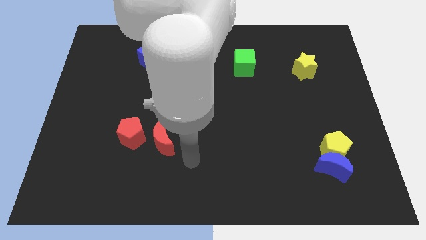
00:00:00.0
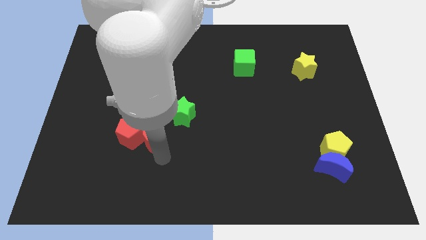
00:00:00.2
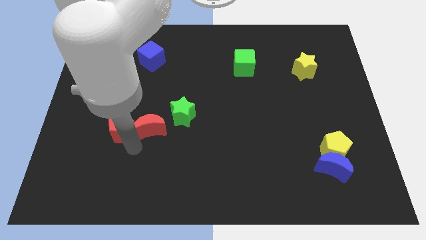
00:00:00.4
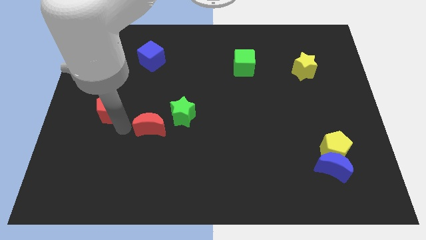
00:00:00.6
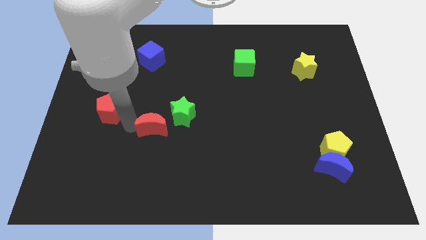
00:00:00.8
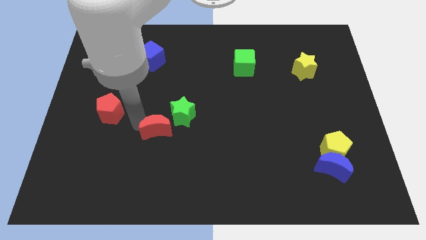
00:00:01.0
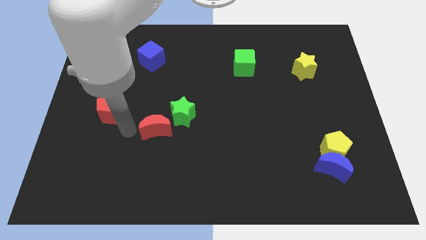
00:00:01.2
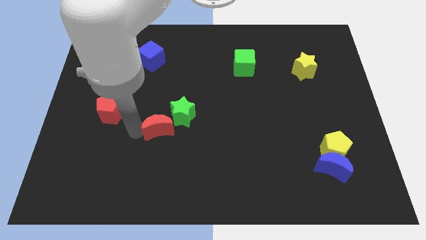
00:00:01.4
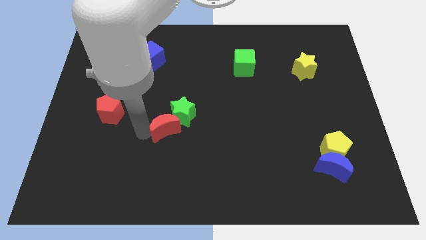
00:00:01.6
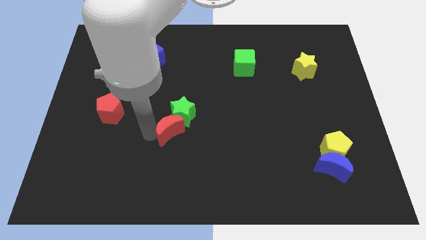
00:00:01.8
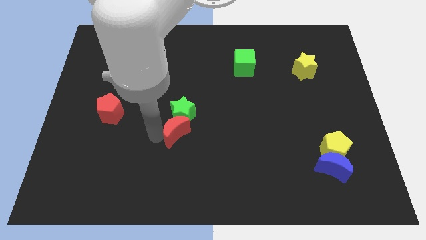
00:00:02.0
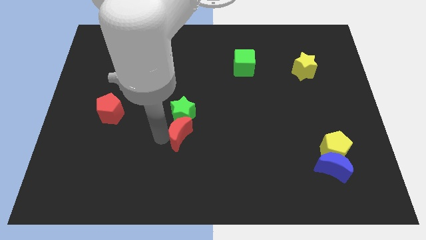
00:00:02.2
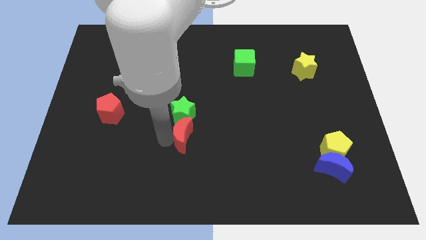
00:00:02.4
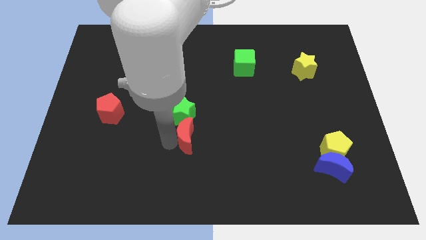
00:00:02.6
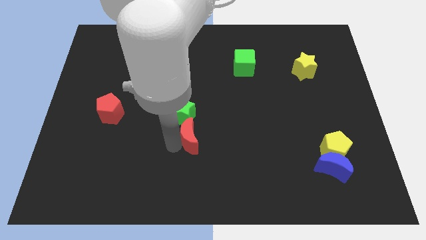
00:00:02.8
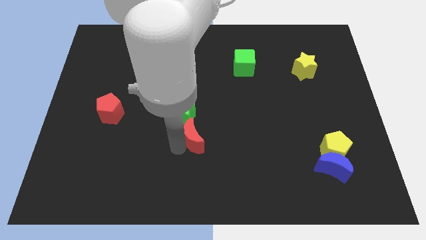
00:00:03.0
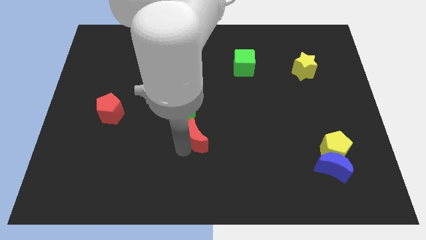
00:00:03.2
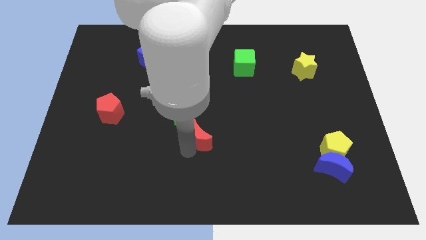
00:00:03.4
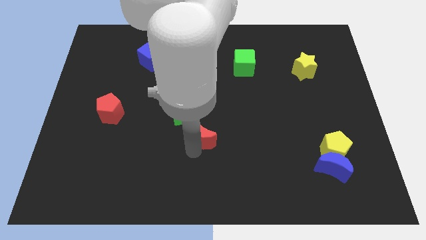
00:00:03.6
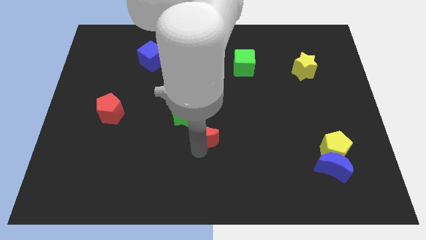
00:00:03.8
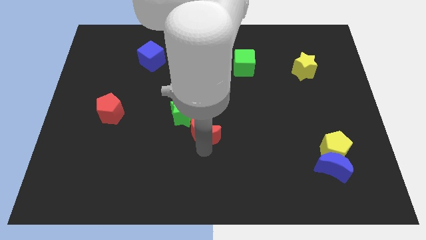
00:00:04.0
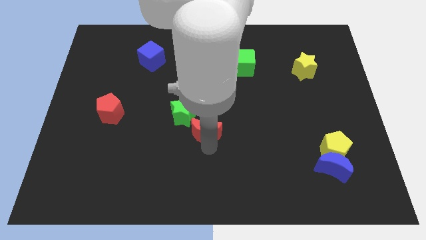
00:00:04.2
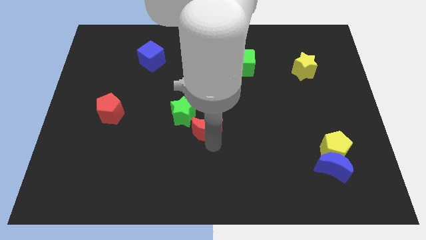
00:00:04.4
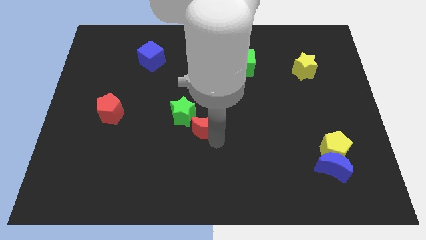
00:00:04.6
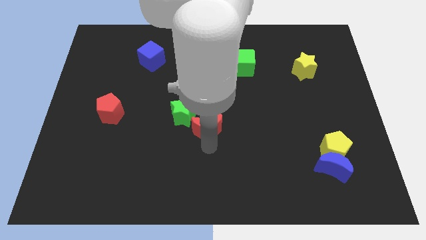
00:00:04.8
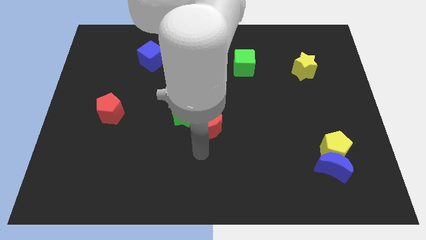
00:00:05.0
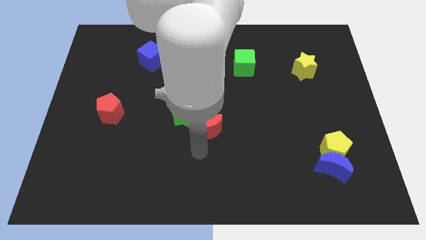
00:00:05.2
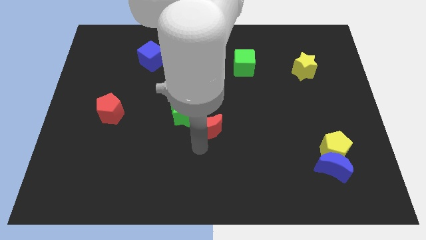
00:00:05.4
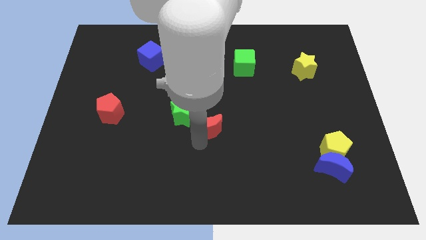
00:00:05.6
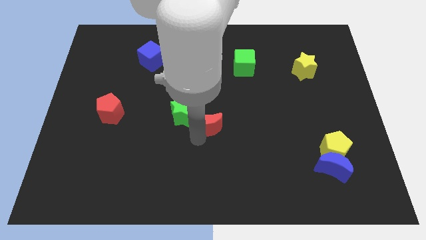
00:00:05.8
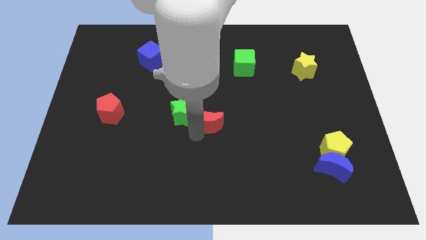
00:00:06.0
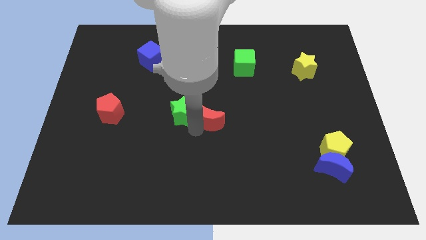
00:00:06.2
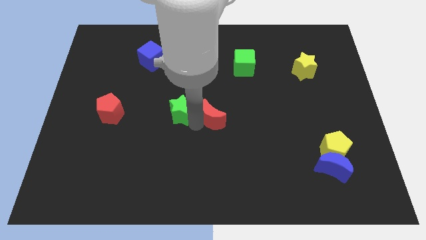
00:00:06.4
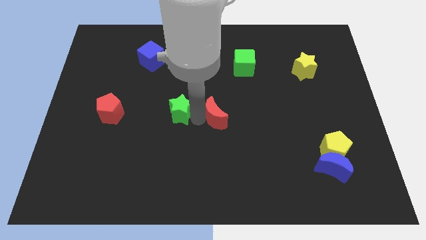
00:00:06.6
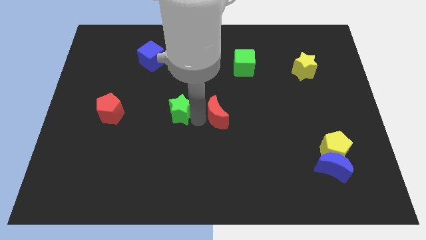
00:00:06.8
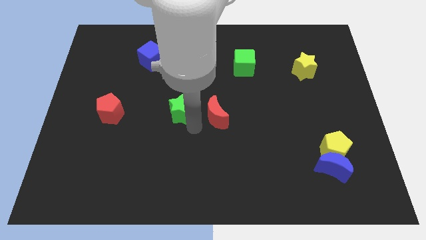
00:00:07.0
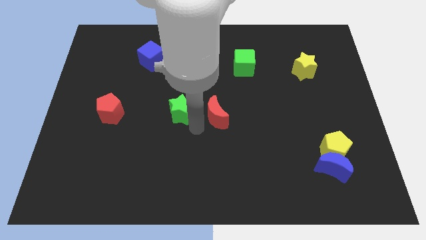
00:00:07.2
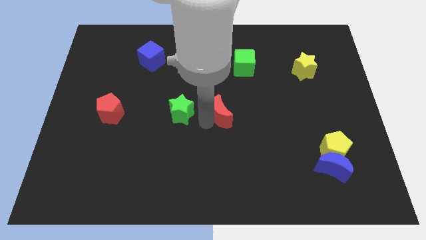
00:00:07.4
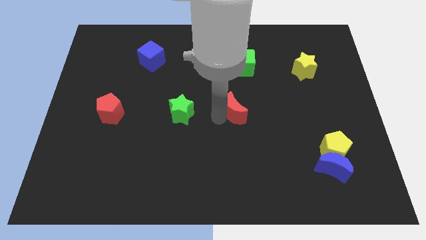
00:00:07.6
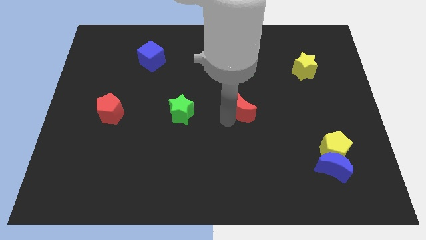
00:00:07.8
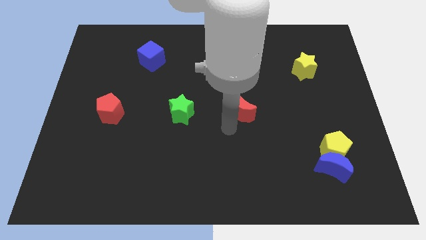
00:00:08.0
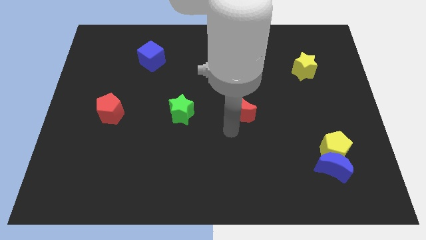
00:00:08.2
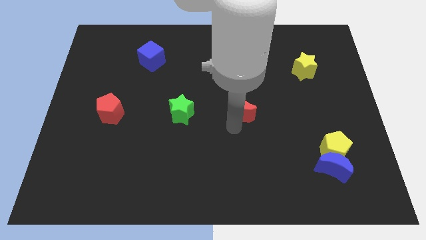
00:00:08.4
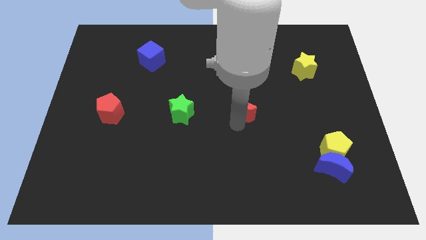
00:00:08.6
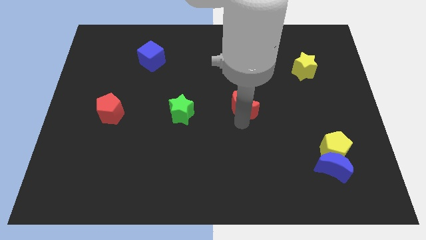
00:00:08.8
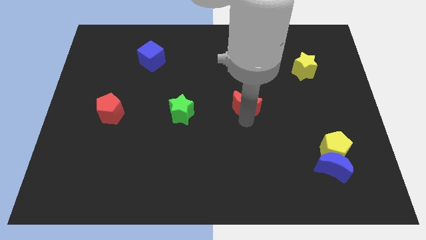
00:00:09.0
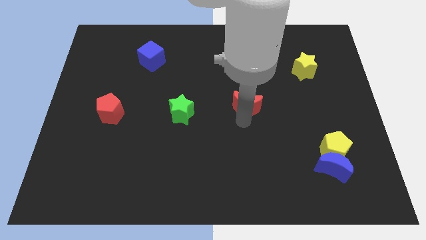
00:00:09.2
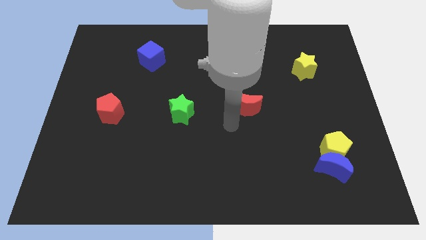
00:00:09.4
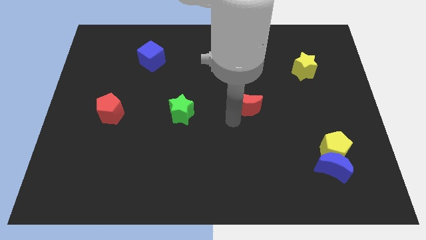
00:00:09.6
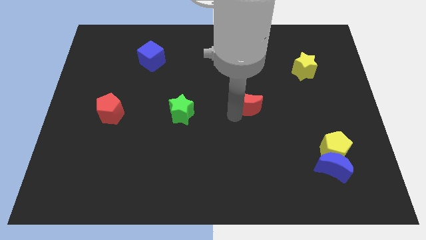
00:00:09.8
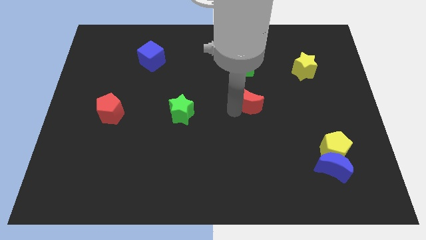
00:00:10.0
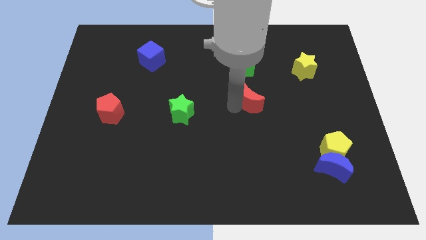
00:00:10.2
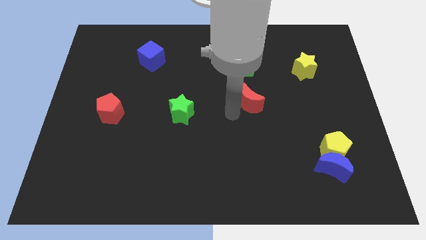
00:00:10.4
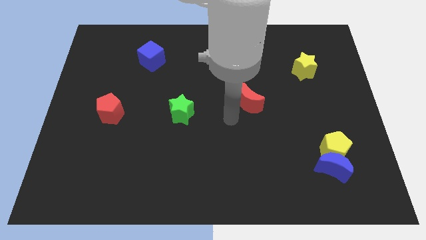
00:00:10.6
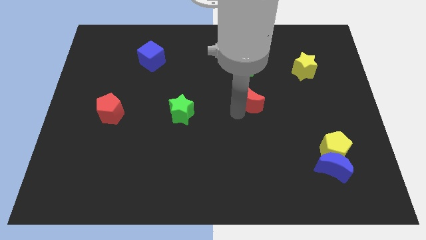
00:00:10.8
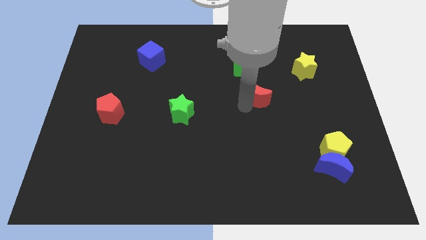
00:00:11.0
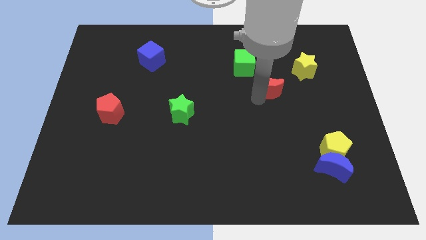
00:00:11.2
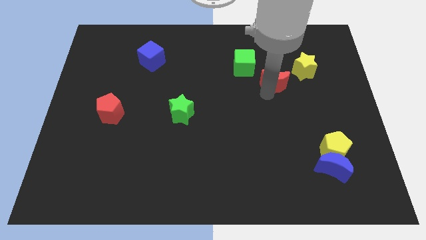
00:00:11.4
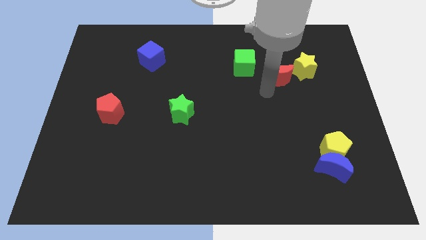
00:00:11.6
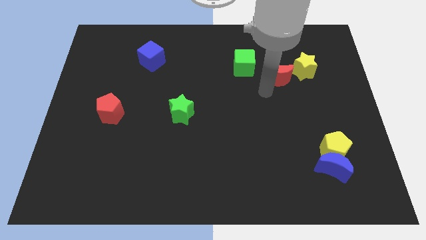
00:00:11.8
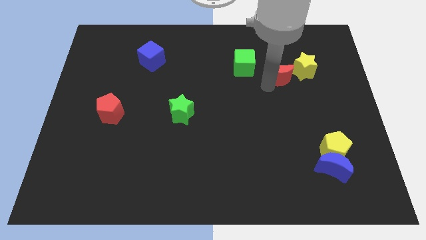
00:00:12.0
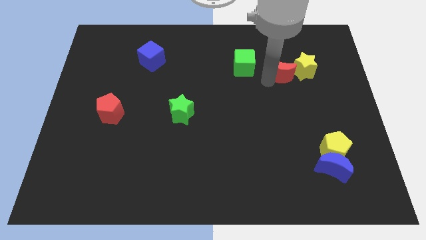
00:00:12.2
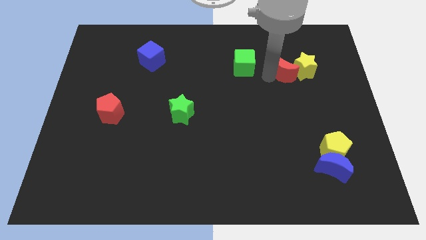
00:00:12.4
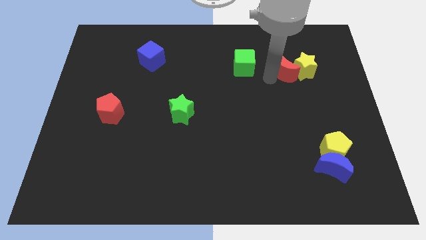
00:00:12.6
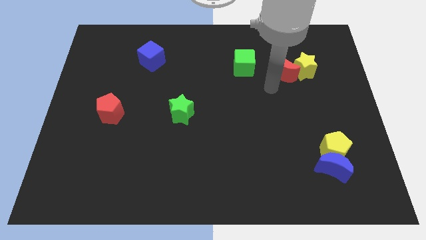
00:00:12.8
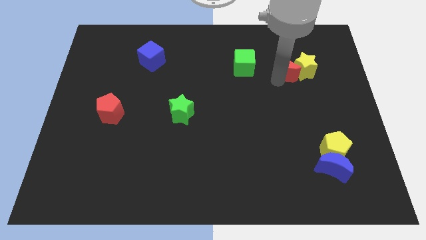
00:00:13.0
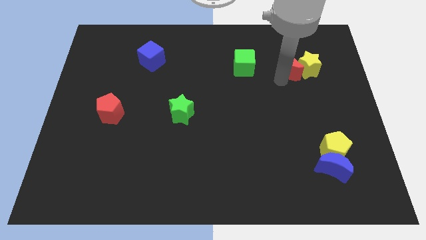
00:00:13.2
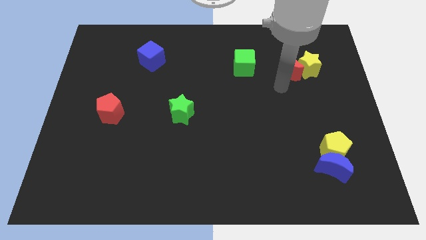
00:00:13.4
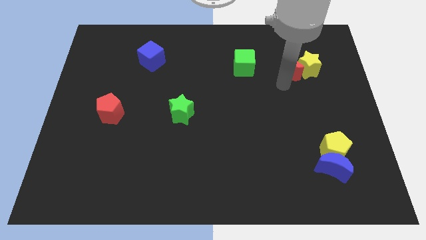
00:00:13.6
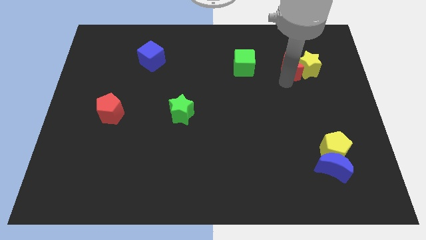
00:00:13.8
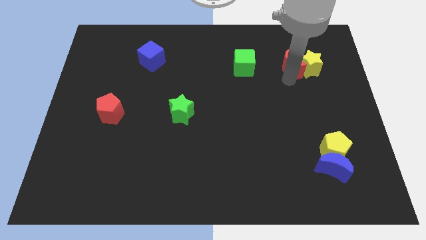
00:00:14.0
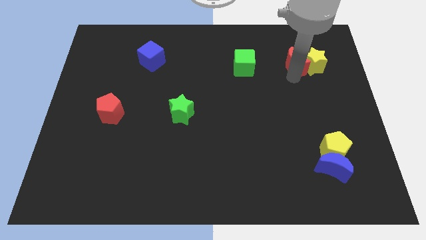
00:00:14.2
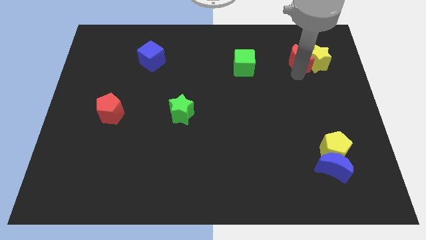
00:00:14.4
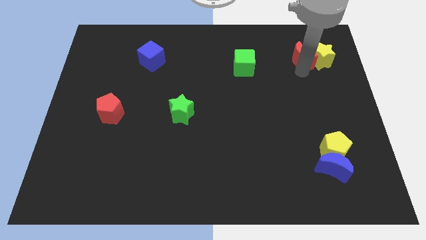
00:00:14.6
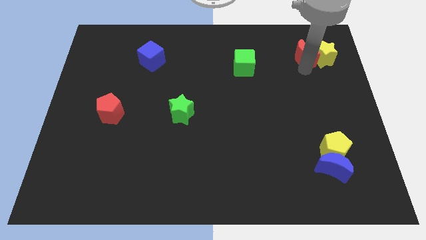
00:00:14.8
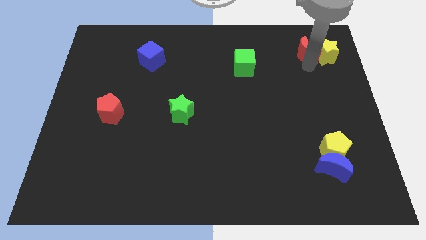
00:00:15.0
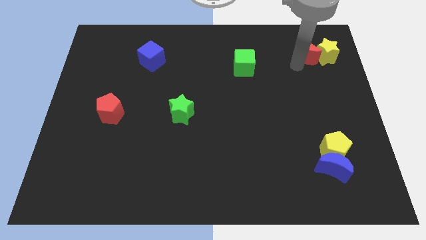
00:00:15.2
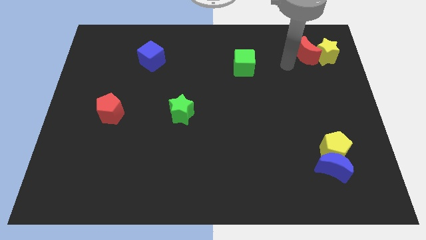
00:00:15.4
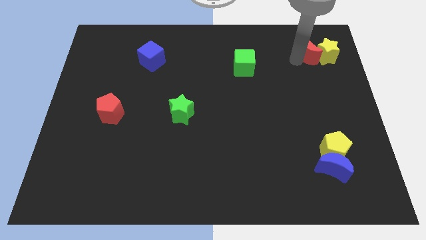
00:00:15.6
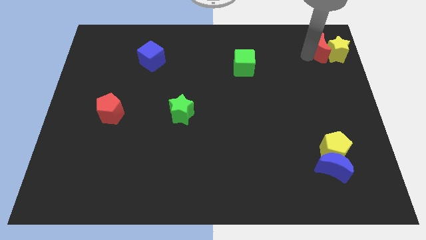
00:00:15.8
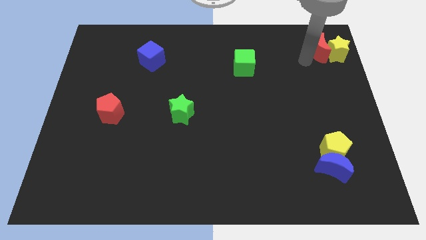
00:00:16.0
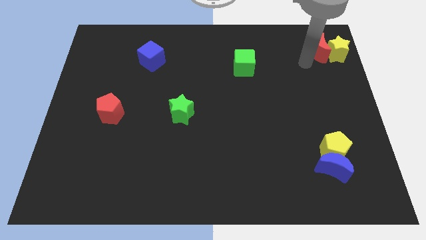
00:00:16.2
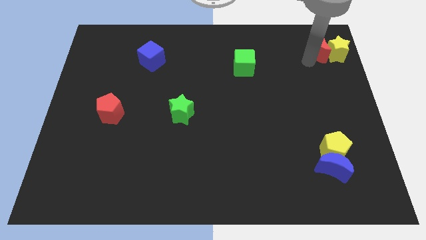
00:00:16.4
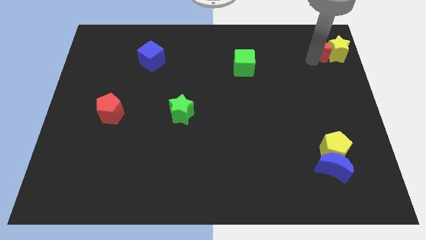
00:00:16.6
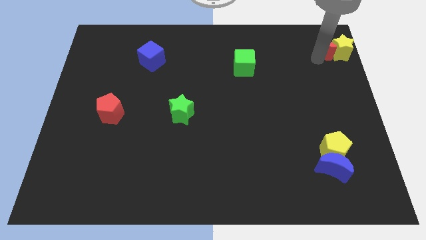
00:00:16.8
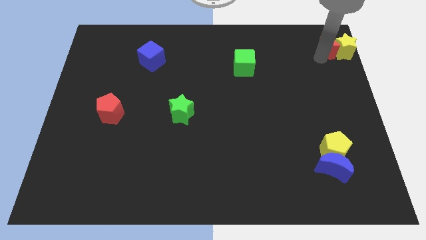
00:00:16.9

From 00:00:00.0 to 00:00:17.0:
put the red moon to the top right of the board
